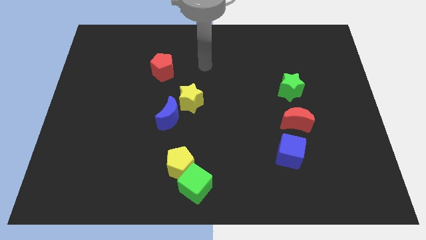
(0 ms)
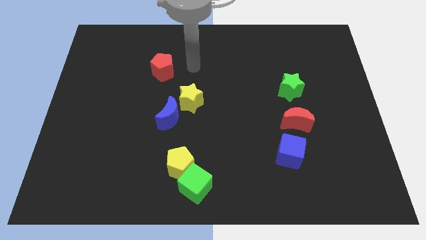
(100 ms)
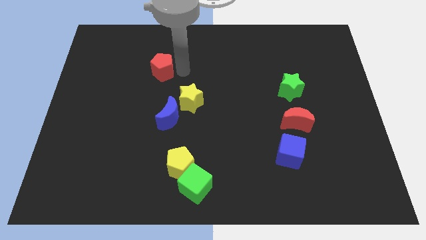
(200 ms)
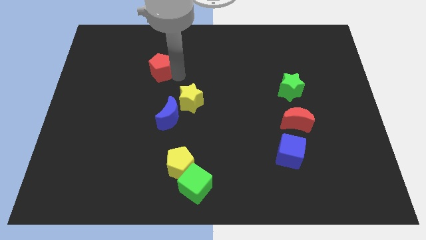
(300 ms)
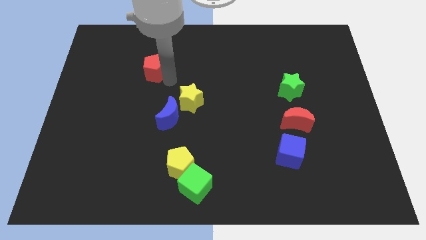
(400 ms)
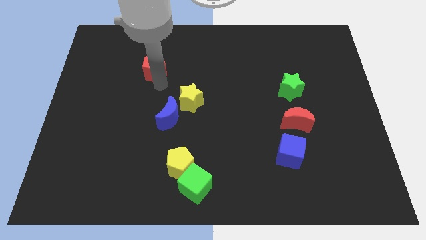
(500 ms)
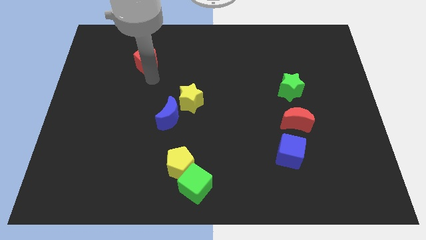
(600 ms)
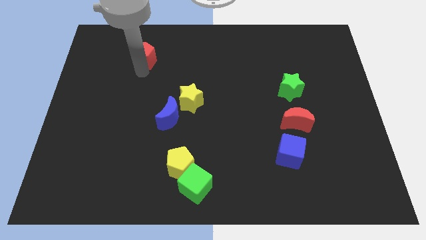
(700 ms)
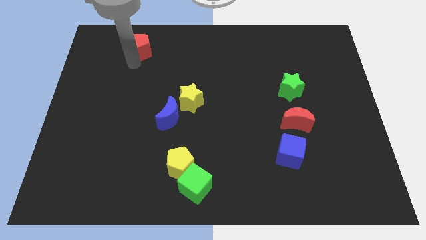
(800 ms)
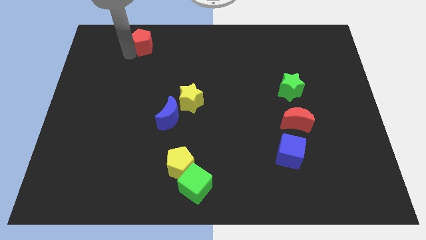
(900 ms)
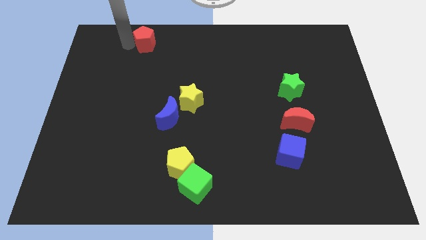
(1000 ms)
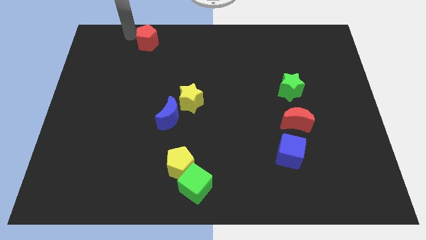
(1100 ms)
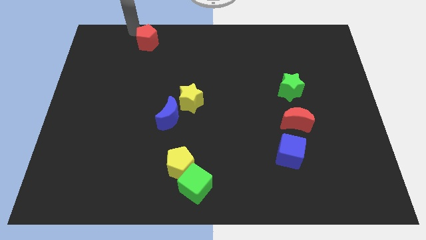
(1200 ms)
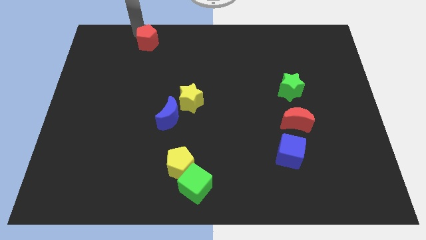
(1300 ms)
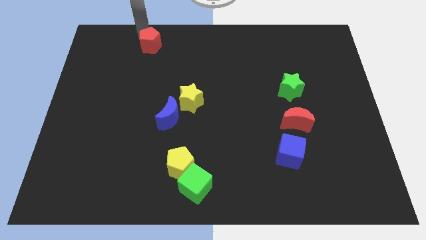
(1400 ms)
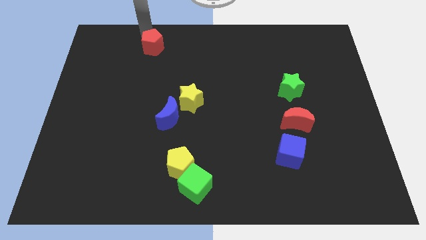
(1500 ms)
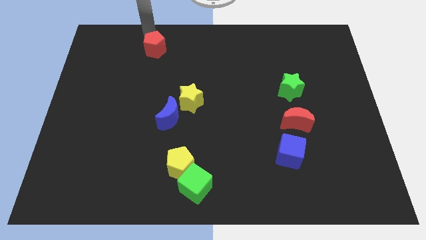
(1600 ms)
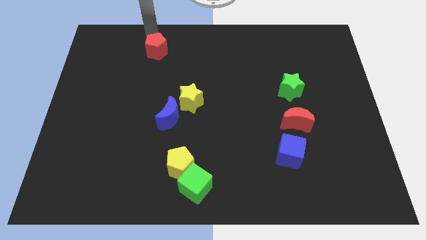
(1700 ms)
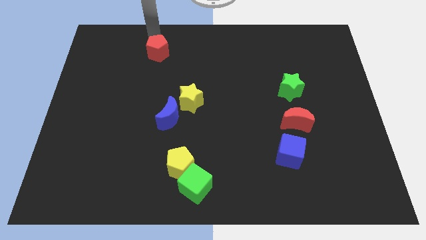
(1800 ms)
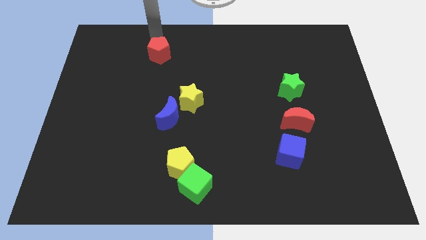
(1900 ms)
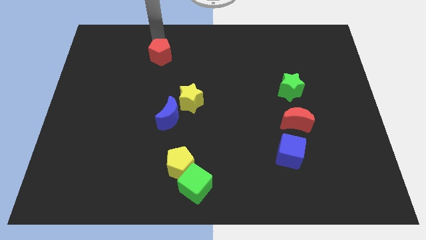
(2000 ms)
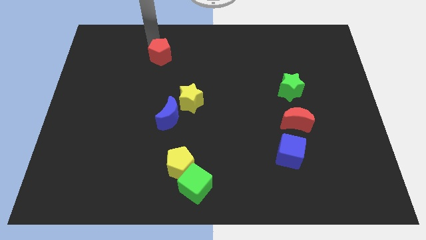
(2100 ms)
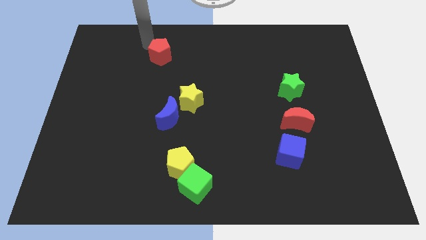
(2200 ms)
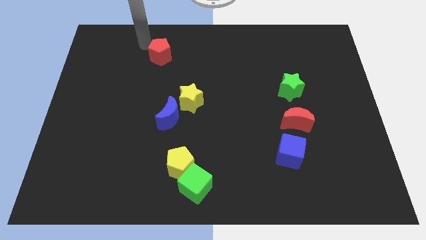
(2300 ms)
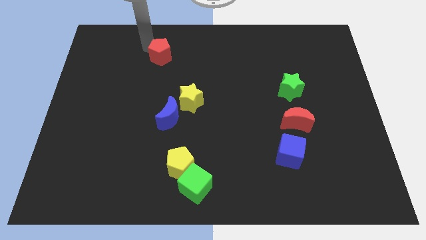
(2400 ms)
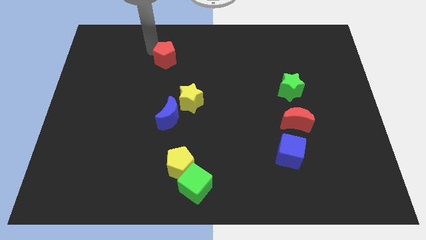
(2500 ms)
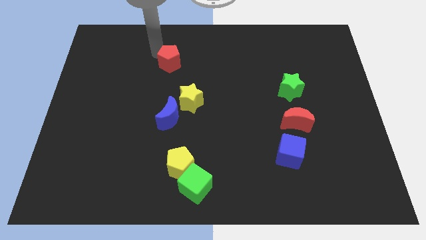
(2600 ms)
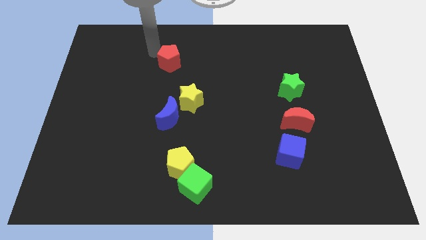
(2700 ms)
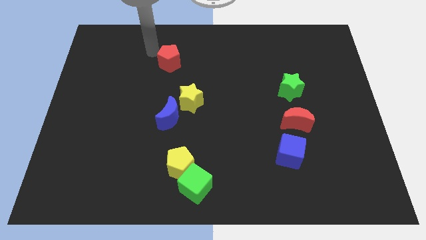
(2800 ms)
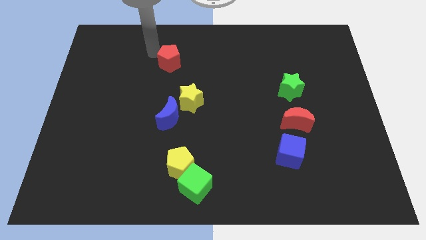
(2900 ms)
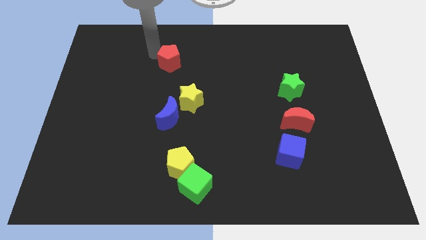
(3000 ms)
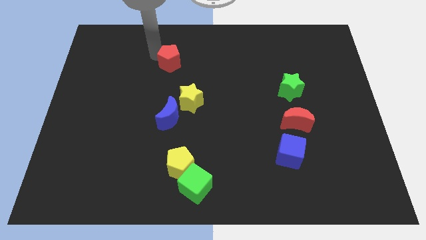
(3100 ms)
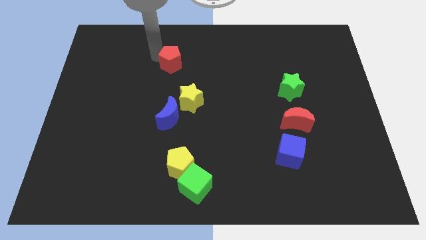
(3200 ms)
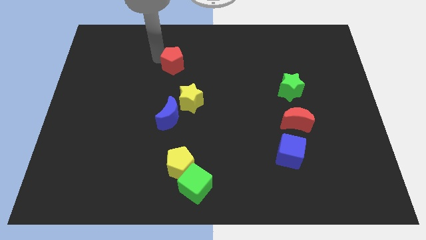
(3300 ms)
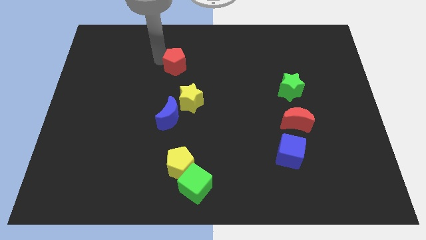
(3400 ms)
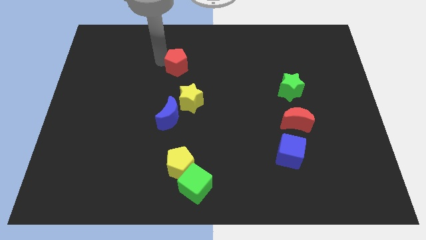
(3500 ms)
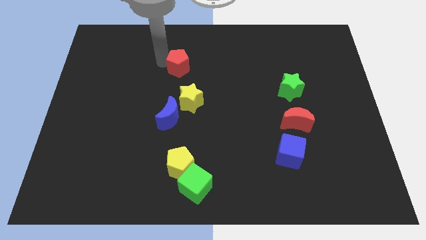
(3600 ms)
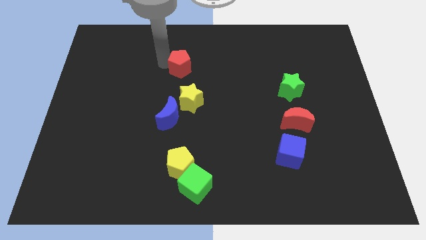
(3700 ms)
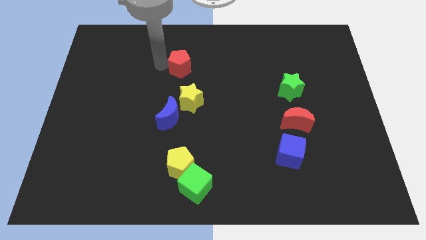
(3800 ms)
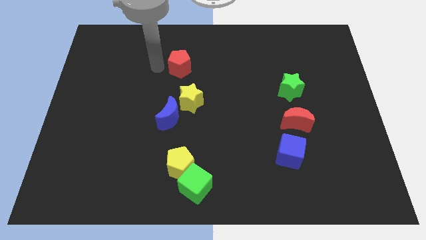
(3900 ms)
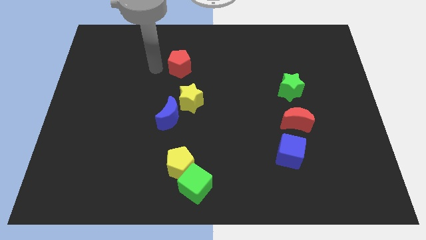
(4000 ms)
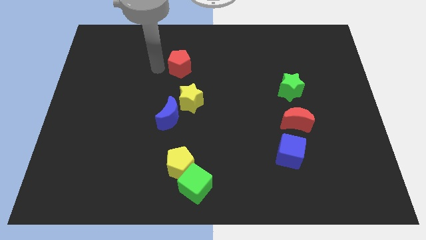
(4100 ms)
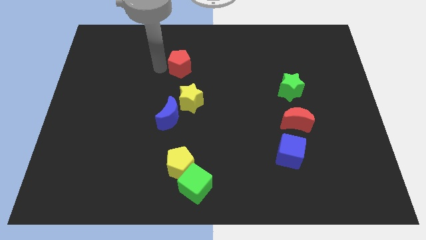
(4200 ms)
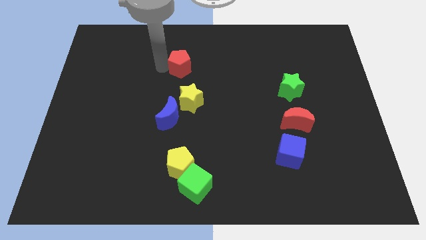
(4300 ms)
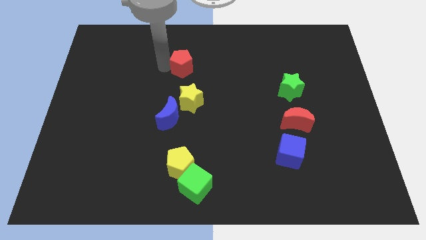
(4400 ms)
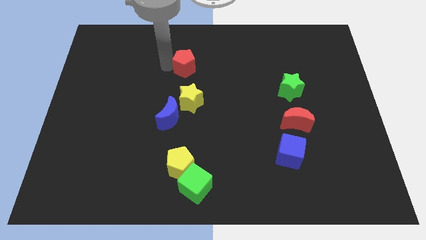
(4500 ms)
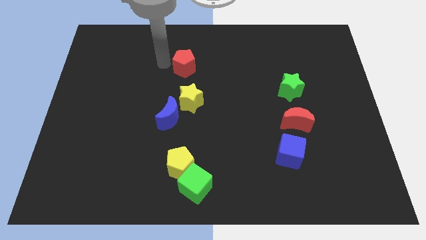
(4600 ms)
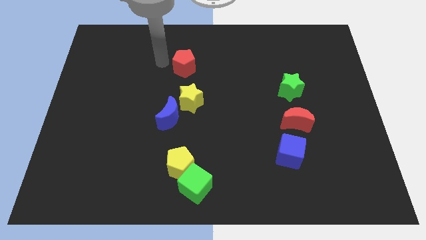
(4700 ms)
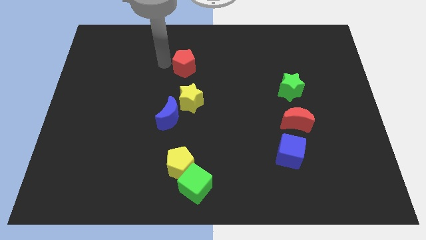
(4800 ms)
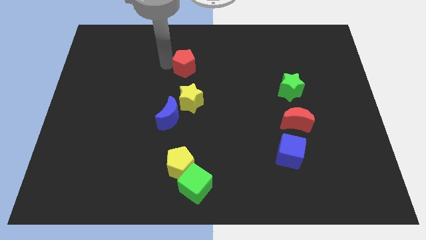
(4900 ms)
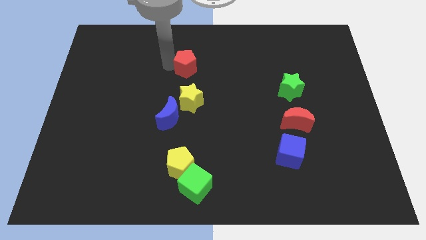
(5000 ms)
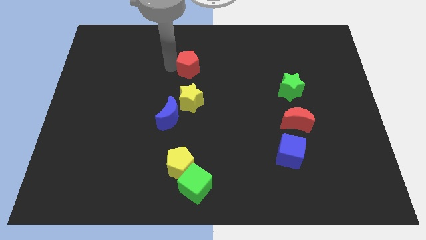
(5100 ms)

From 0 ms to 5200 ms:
move the red pentagon a little bit to the right

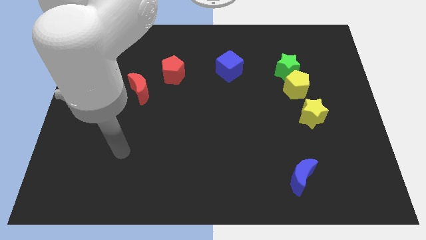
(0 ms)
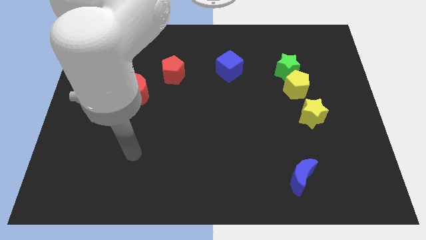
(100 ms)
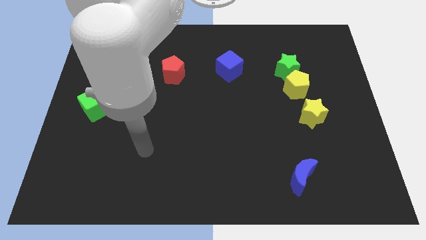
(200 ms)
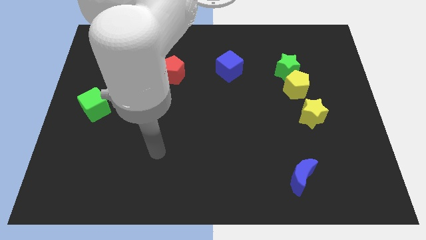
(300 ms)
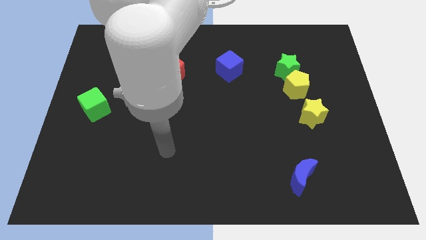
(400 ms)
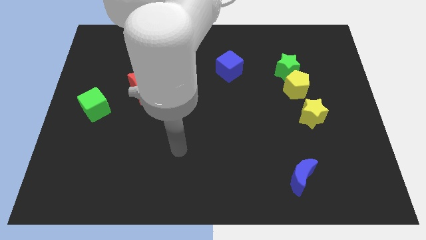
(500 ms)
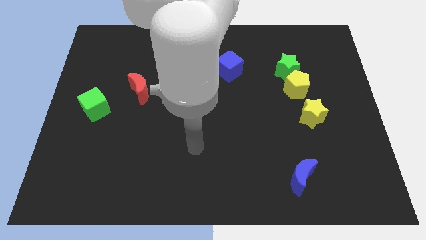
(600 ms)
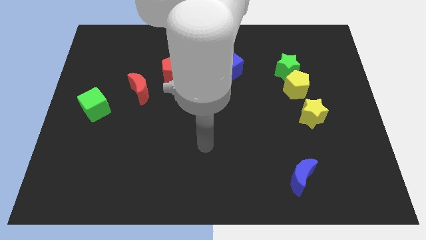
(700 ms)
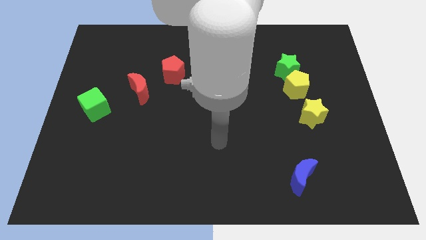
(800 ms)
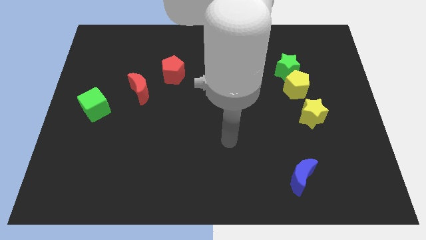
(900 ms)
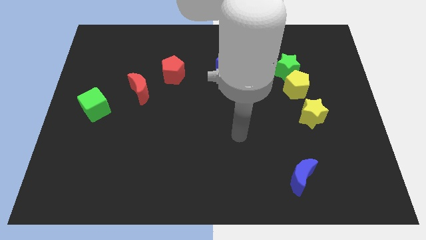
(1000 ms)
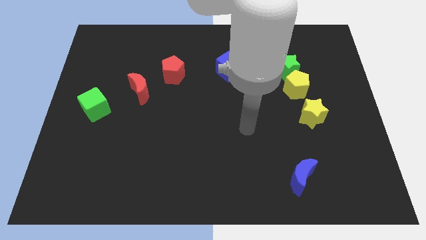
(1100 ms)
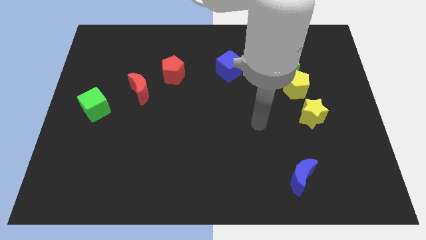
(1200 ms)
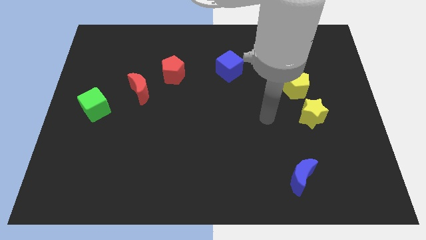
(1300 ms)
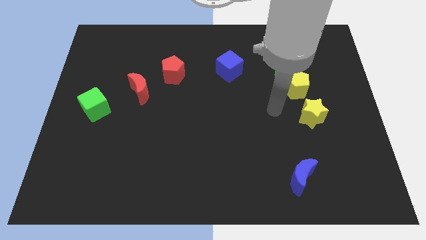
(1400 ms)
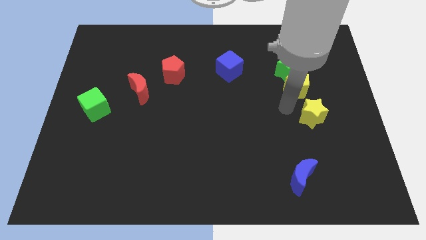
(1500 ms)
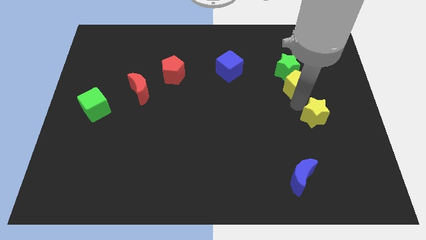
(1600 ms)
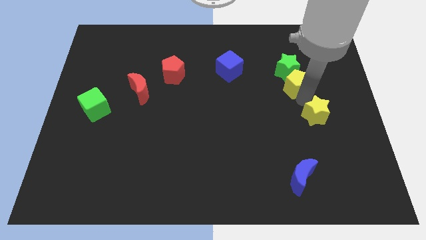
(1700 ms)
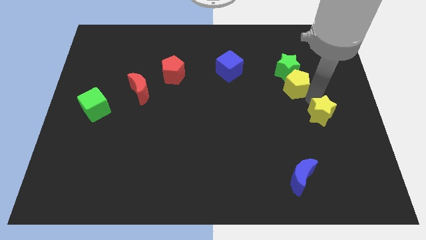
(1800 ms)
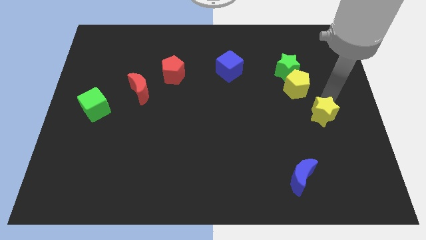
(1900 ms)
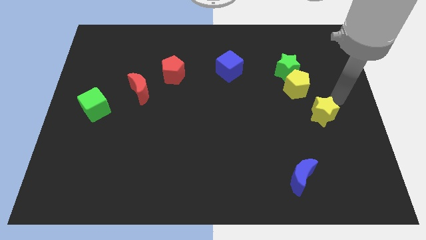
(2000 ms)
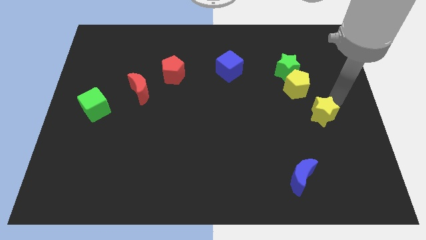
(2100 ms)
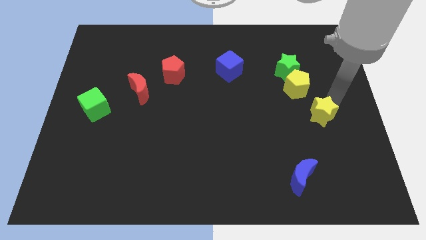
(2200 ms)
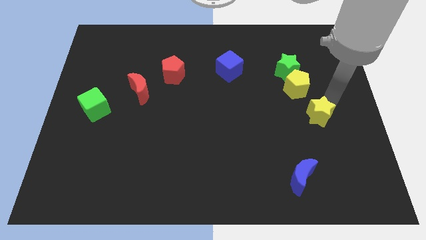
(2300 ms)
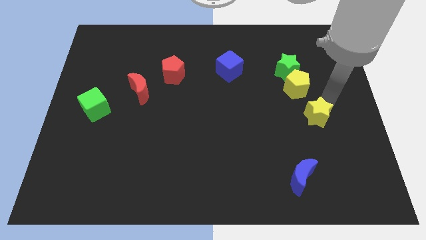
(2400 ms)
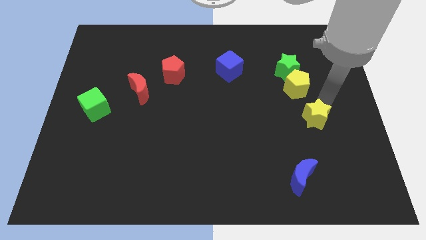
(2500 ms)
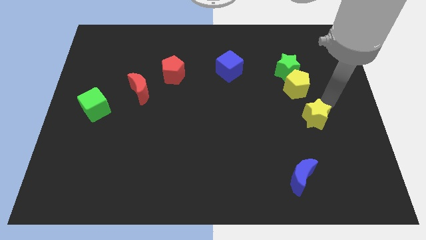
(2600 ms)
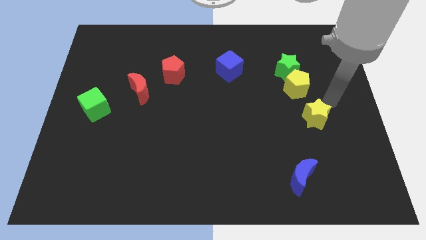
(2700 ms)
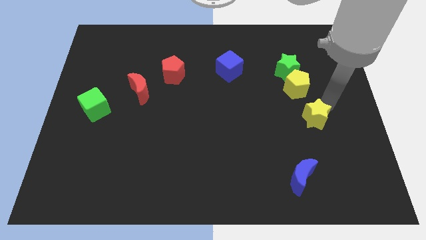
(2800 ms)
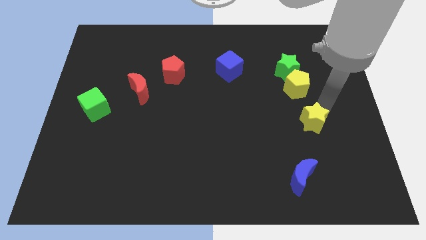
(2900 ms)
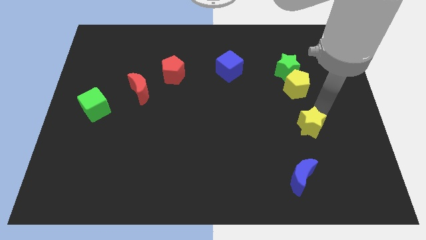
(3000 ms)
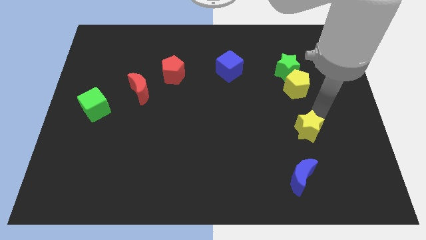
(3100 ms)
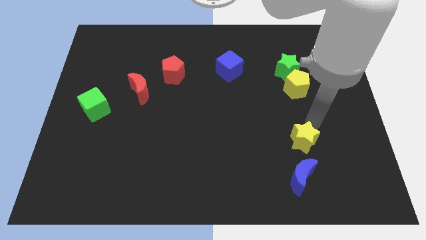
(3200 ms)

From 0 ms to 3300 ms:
move the yellow star a bit downwards and left

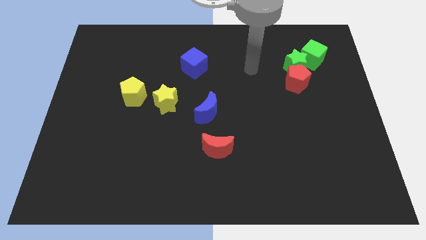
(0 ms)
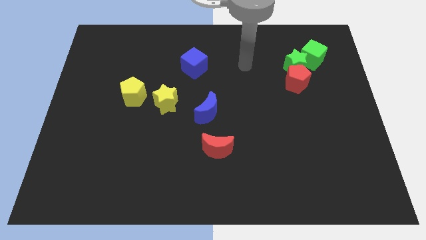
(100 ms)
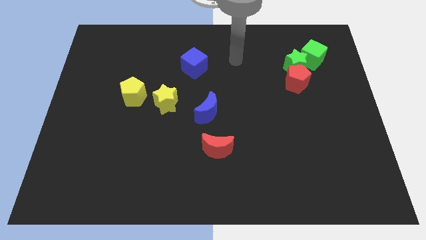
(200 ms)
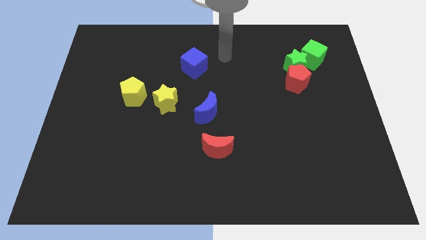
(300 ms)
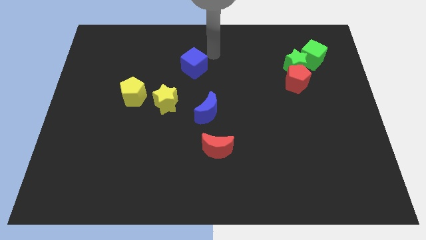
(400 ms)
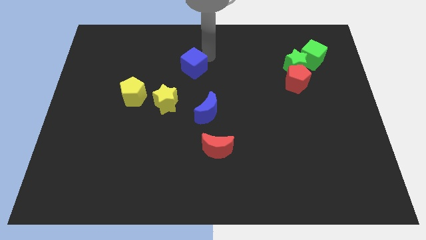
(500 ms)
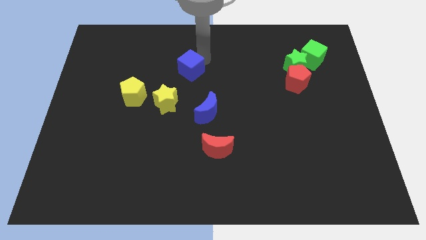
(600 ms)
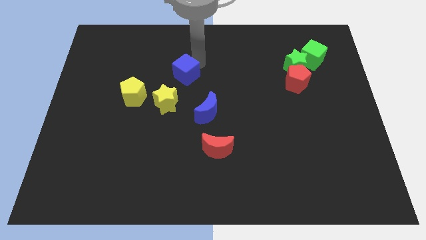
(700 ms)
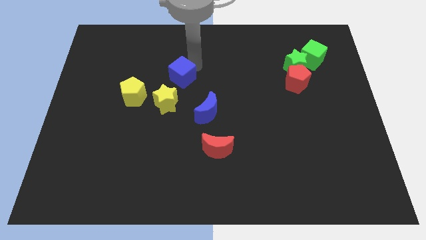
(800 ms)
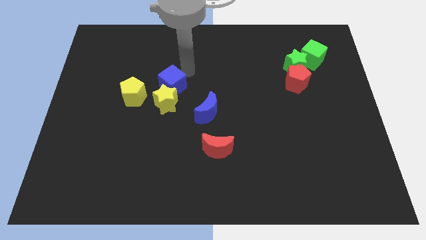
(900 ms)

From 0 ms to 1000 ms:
slightly move the blue cube diagonally down and to the left
